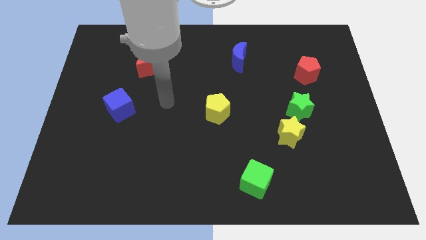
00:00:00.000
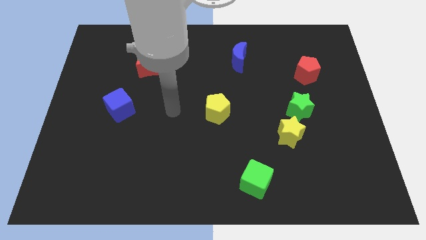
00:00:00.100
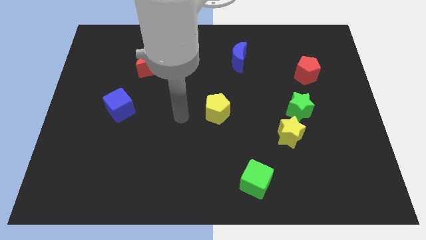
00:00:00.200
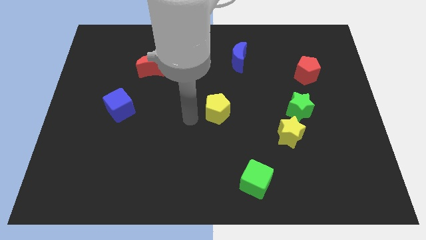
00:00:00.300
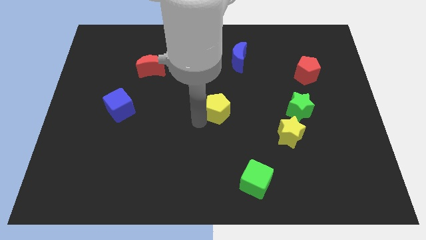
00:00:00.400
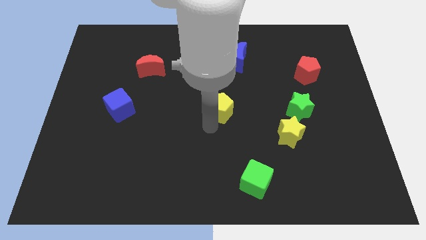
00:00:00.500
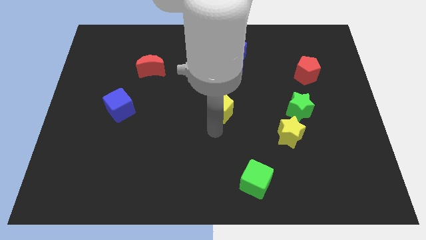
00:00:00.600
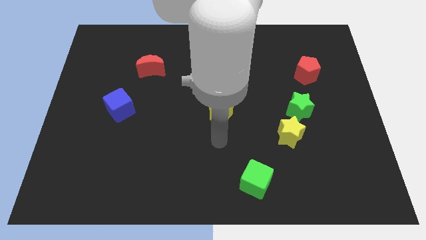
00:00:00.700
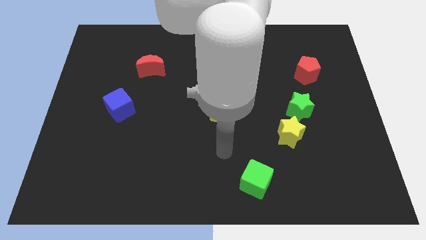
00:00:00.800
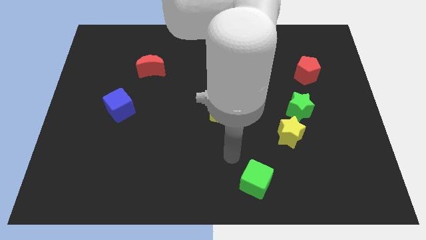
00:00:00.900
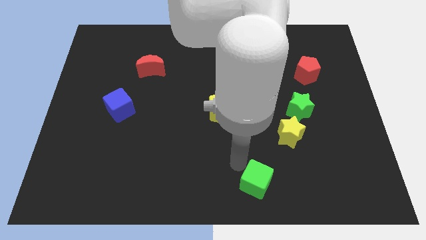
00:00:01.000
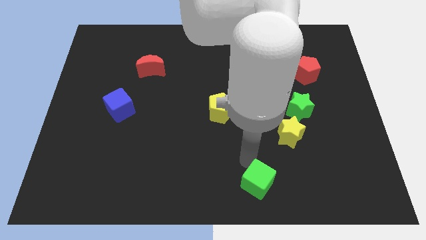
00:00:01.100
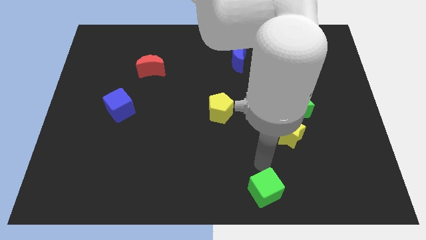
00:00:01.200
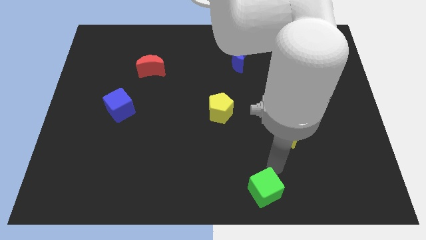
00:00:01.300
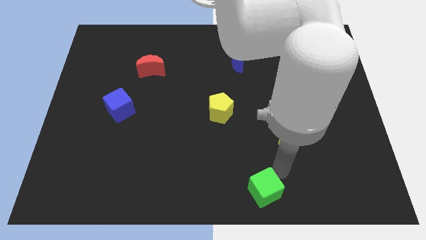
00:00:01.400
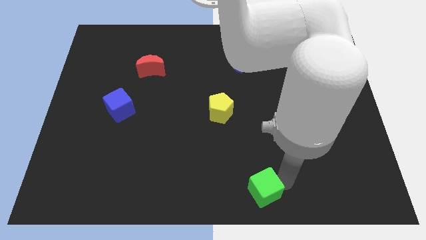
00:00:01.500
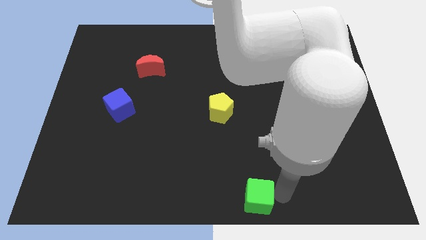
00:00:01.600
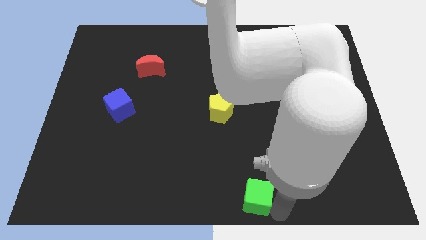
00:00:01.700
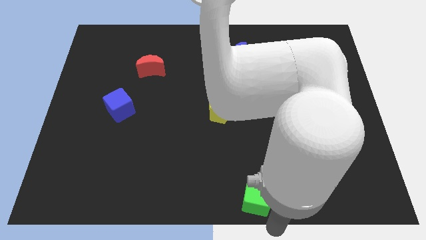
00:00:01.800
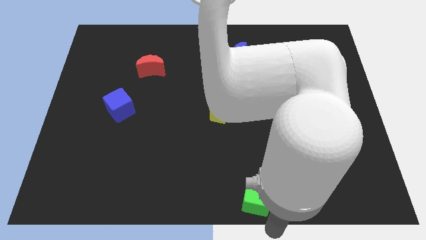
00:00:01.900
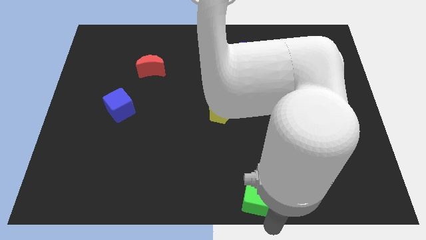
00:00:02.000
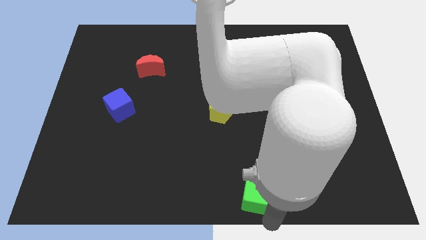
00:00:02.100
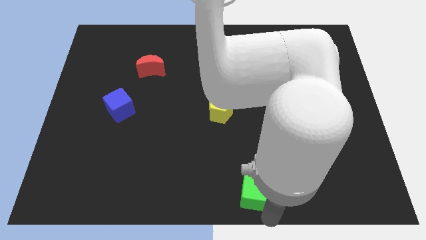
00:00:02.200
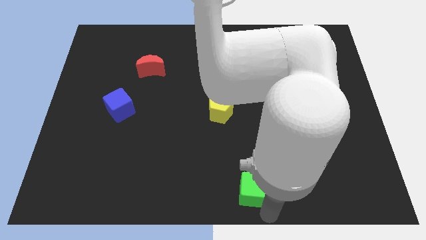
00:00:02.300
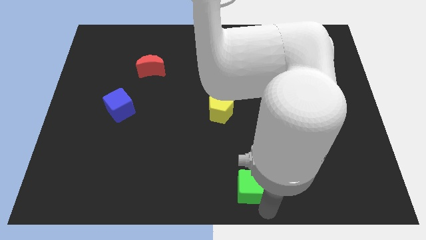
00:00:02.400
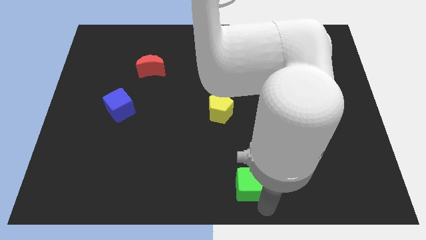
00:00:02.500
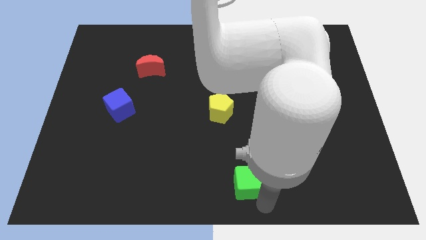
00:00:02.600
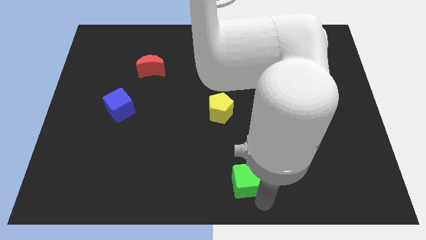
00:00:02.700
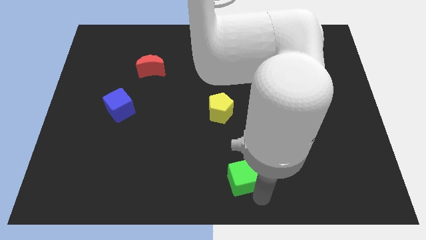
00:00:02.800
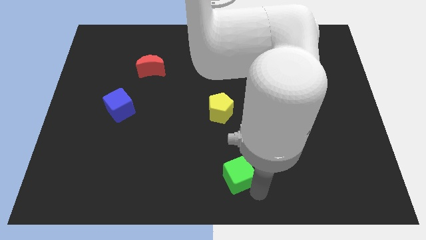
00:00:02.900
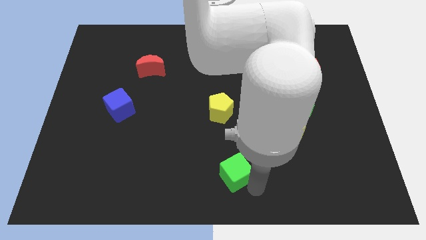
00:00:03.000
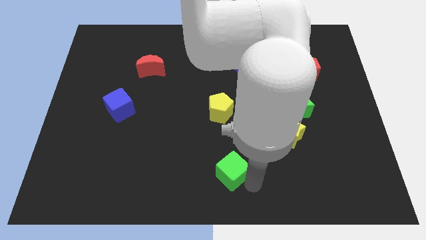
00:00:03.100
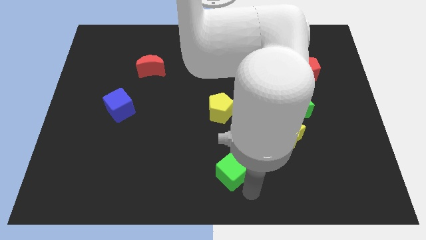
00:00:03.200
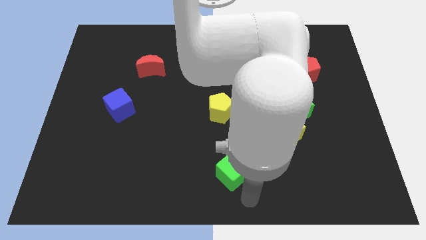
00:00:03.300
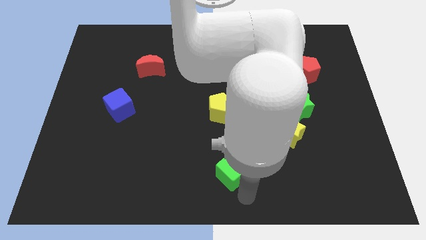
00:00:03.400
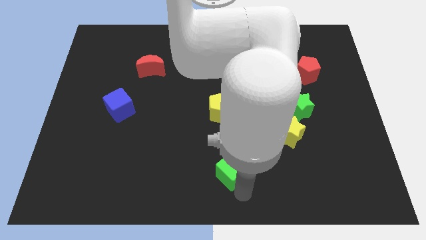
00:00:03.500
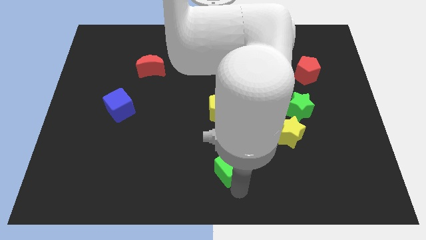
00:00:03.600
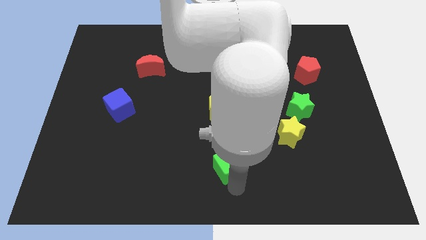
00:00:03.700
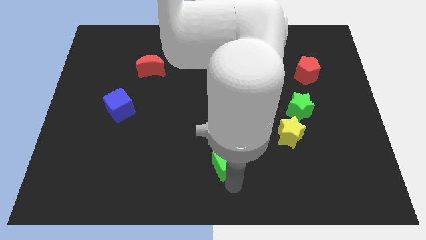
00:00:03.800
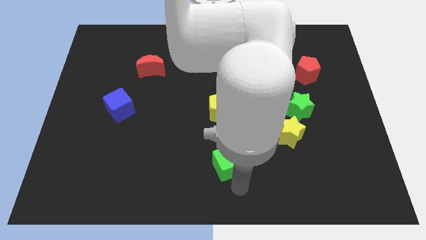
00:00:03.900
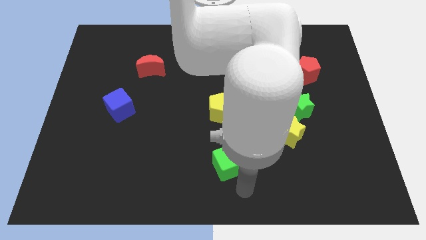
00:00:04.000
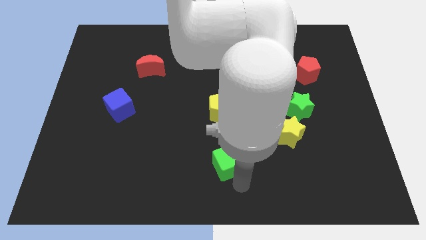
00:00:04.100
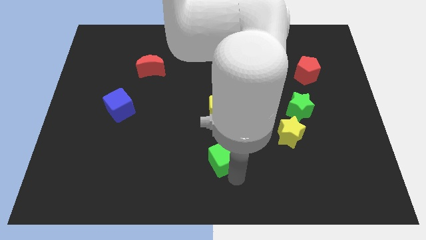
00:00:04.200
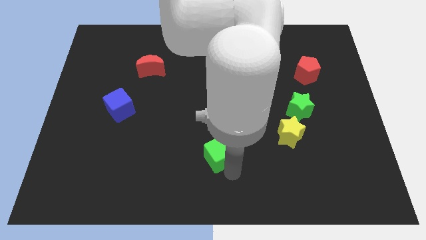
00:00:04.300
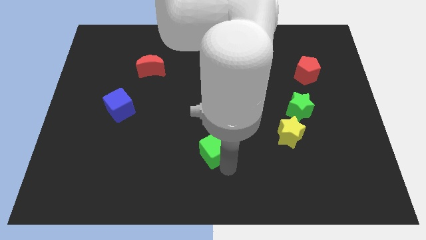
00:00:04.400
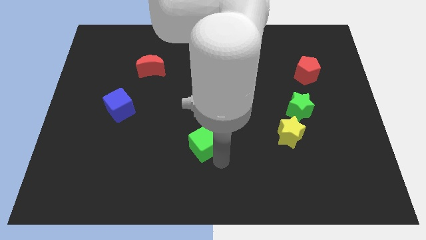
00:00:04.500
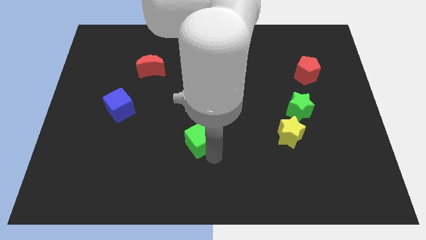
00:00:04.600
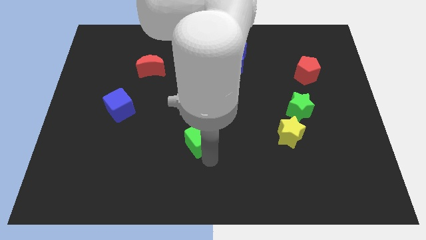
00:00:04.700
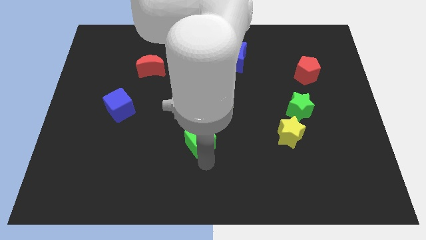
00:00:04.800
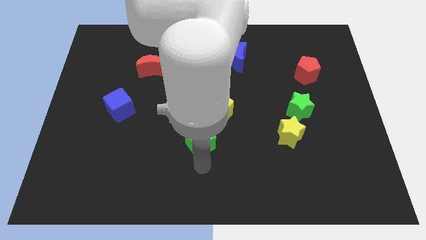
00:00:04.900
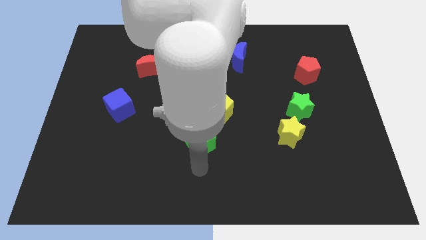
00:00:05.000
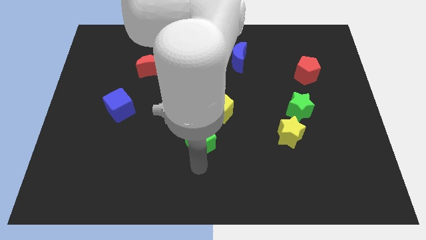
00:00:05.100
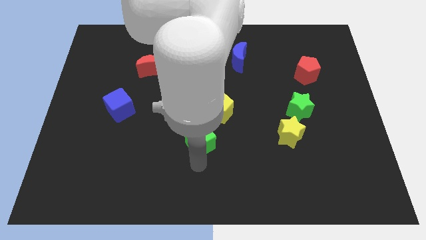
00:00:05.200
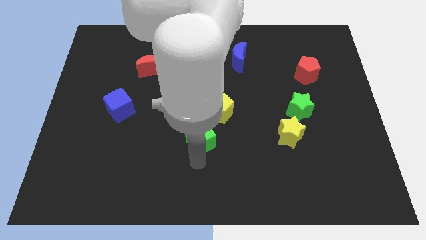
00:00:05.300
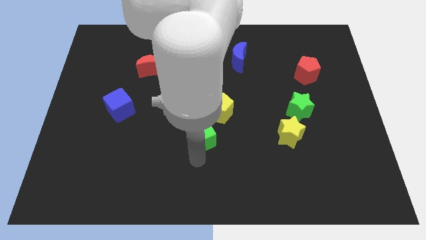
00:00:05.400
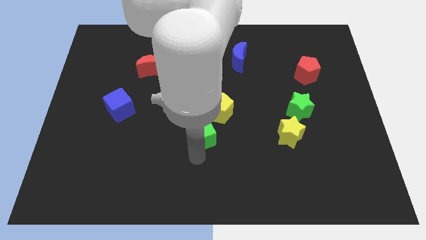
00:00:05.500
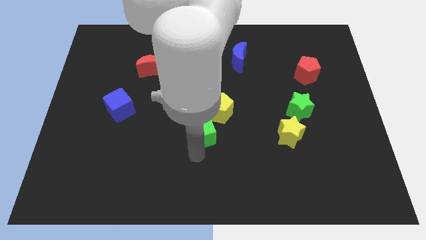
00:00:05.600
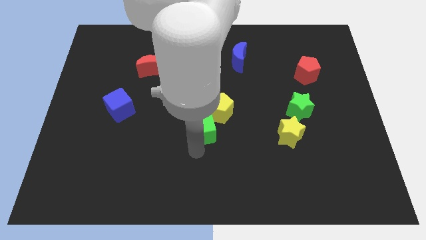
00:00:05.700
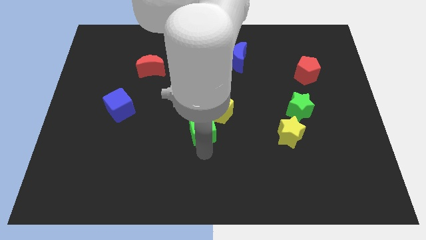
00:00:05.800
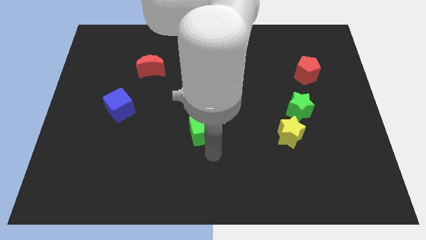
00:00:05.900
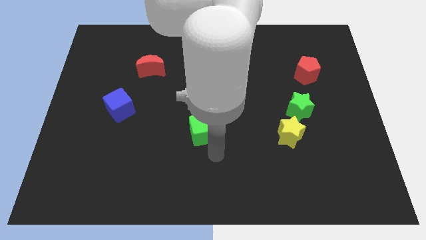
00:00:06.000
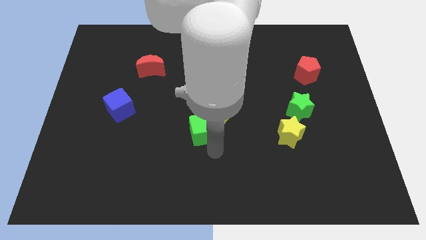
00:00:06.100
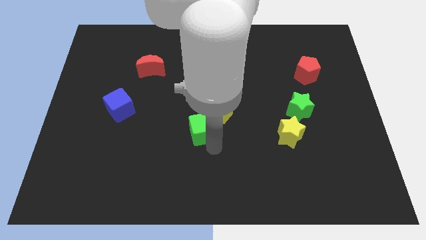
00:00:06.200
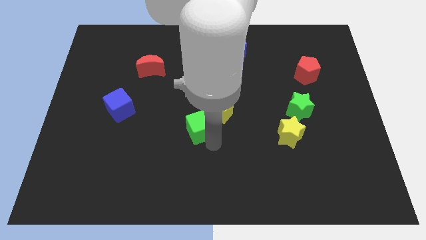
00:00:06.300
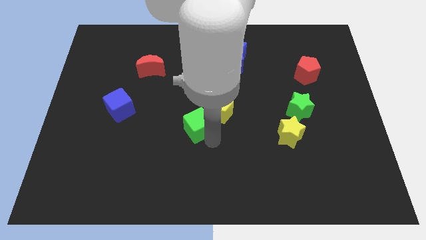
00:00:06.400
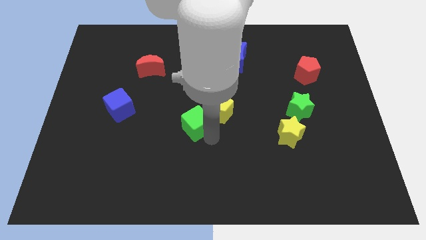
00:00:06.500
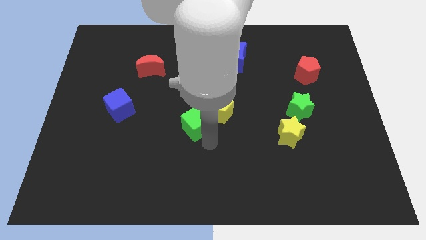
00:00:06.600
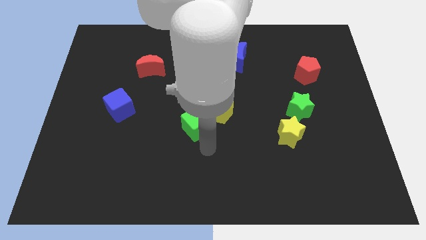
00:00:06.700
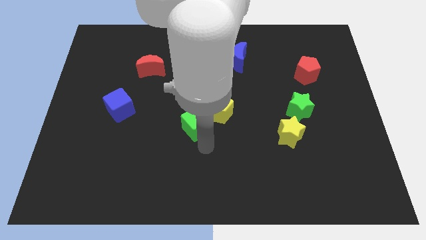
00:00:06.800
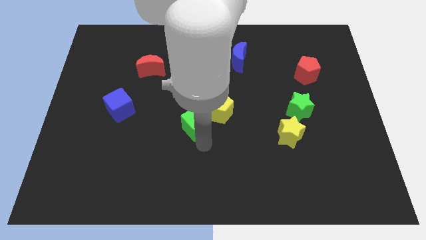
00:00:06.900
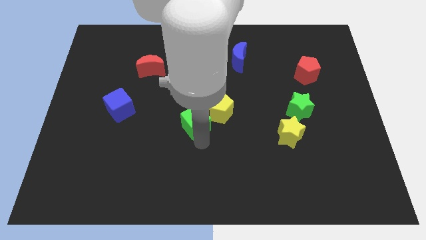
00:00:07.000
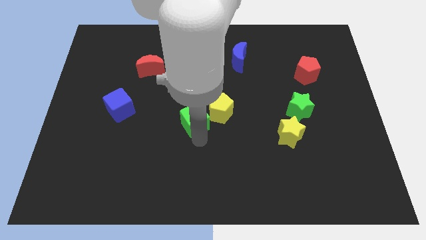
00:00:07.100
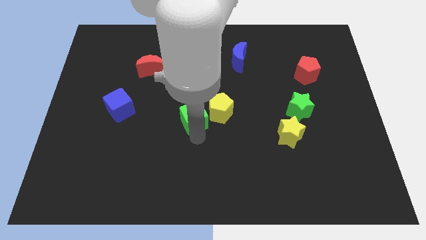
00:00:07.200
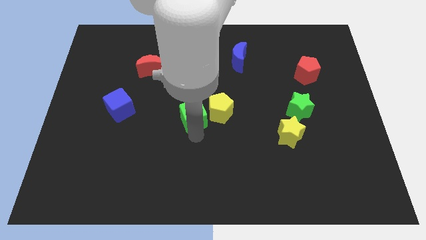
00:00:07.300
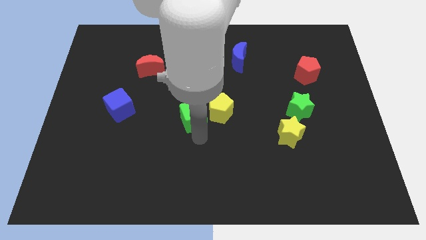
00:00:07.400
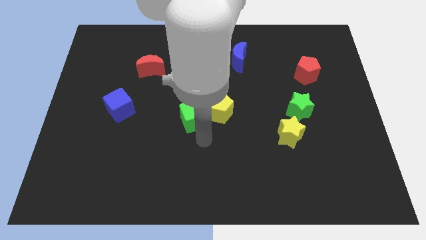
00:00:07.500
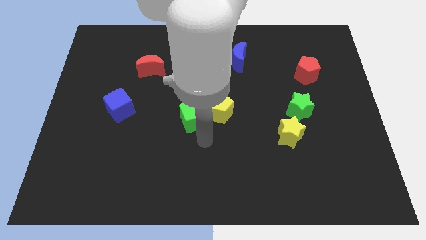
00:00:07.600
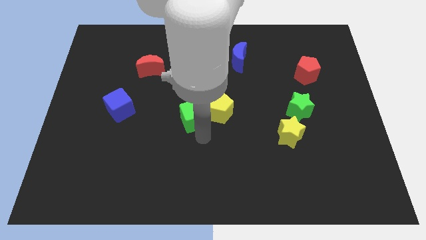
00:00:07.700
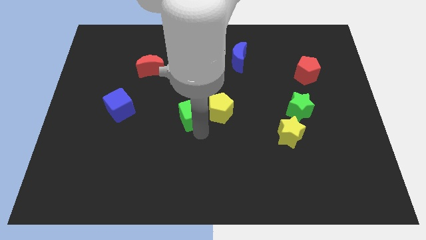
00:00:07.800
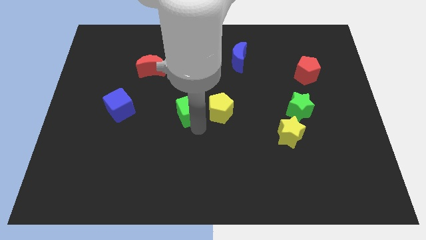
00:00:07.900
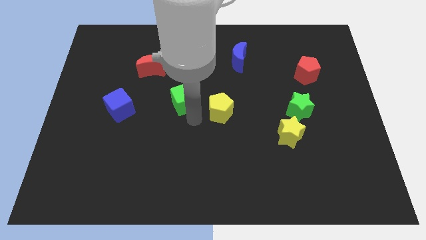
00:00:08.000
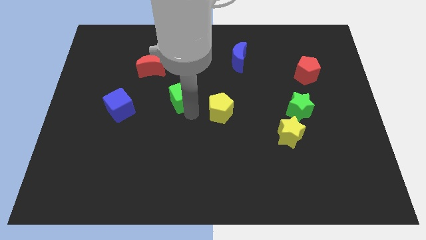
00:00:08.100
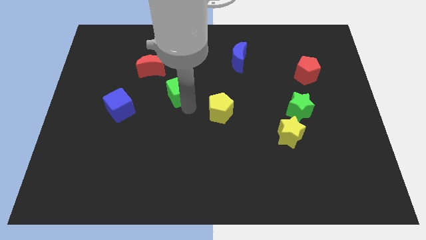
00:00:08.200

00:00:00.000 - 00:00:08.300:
put the green cube to the bottom right side of the red moon
